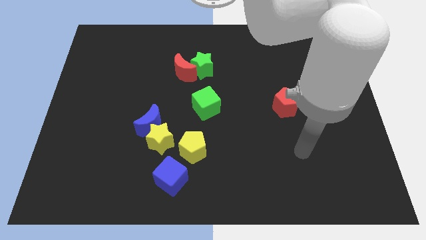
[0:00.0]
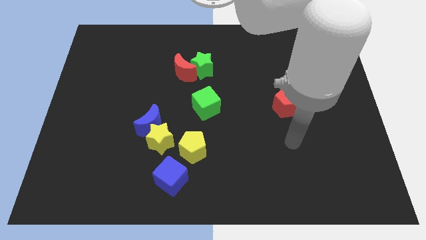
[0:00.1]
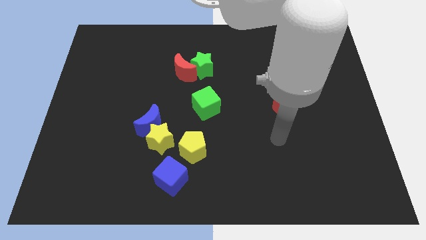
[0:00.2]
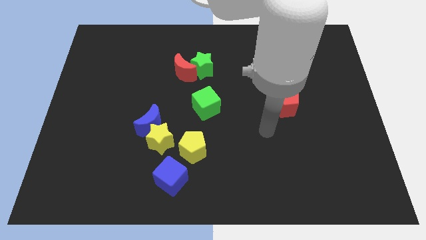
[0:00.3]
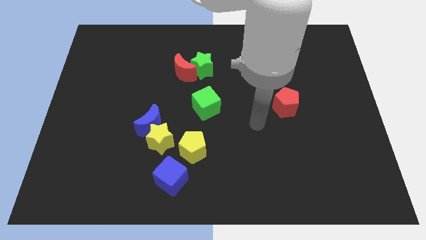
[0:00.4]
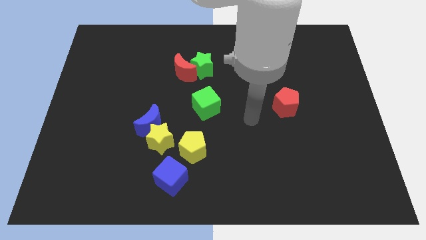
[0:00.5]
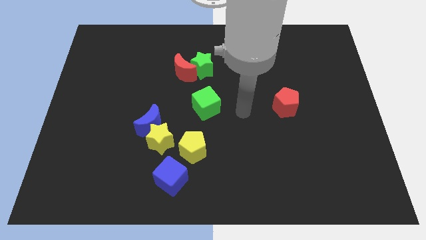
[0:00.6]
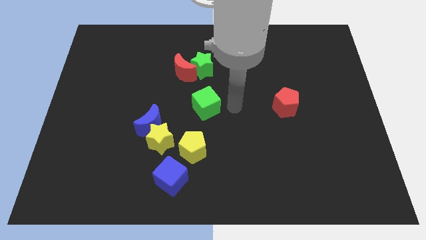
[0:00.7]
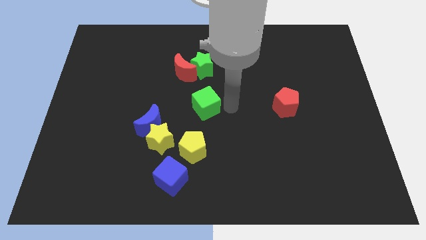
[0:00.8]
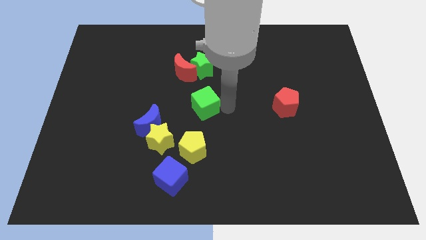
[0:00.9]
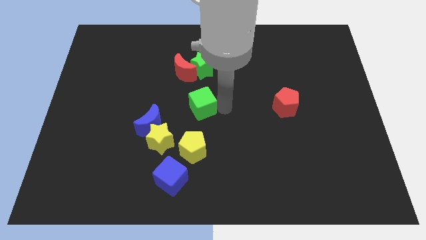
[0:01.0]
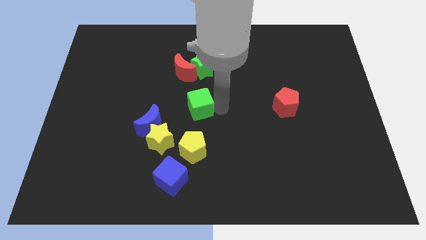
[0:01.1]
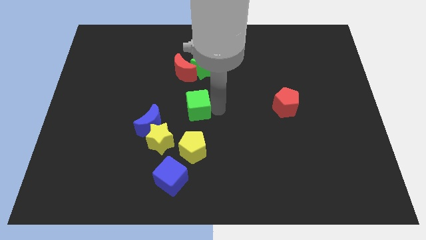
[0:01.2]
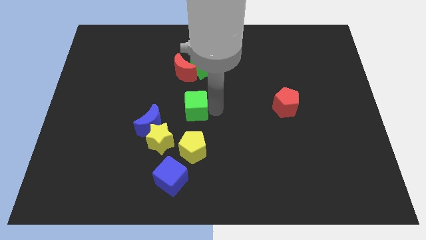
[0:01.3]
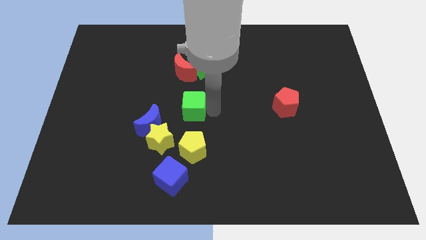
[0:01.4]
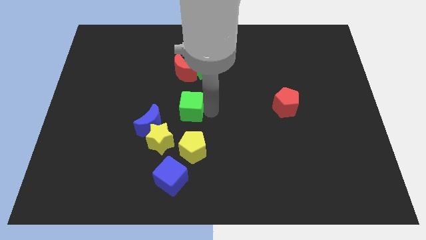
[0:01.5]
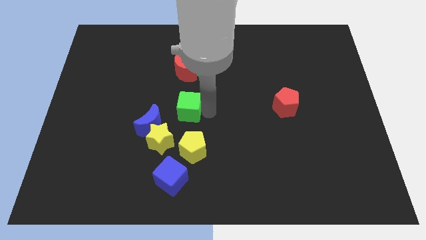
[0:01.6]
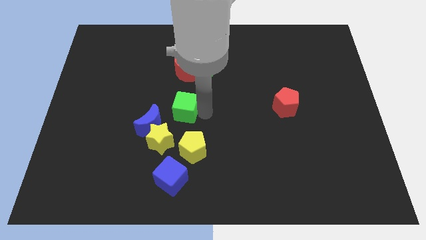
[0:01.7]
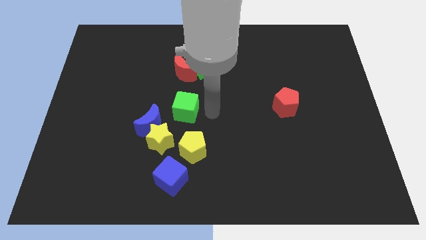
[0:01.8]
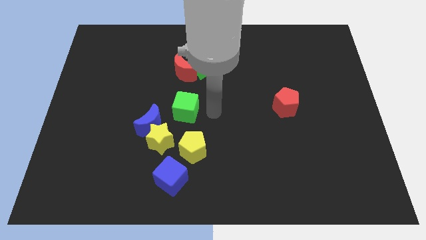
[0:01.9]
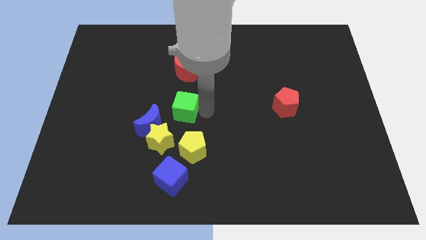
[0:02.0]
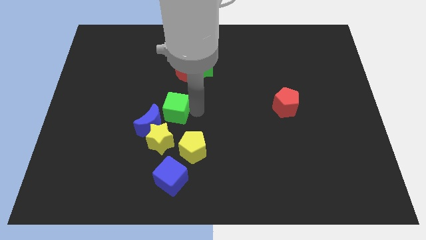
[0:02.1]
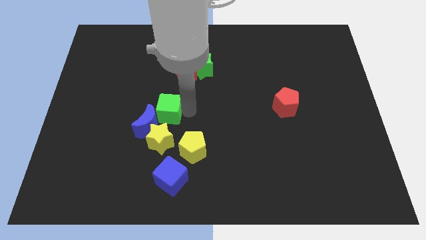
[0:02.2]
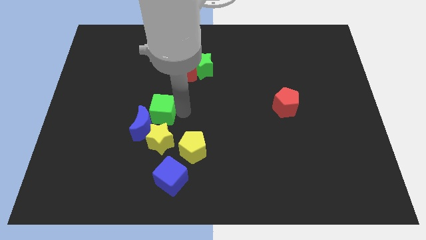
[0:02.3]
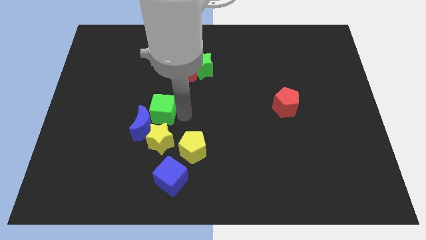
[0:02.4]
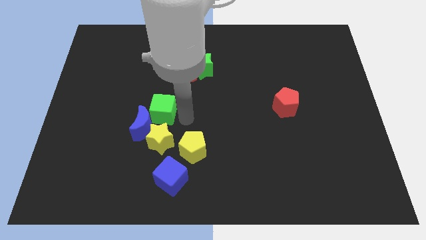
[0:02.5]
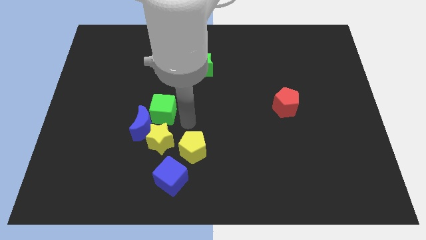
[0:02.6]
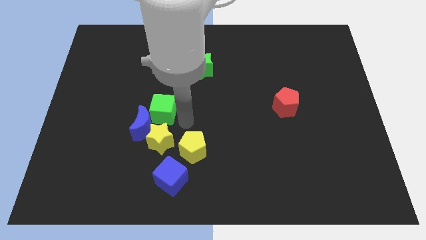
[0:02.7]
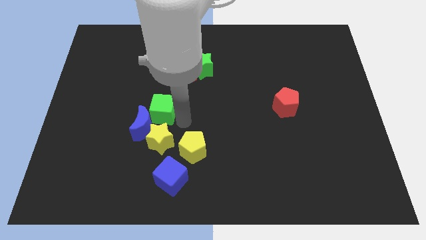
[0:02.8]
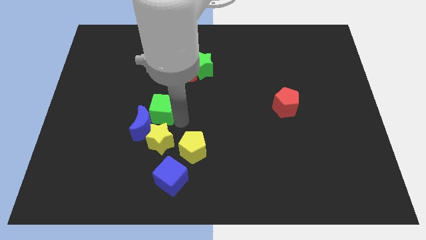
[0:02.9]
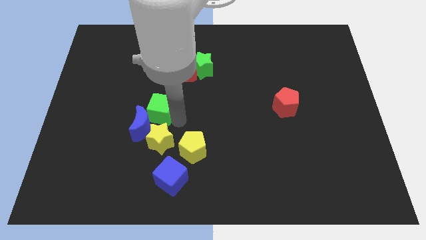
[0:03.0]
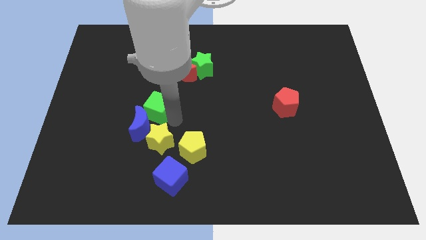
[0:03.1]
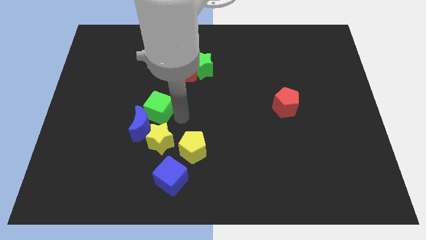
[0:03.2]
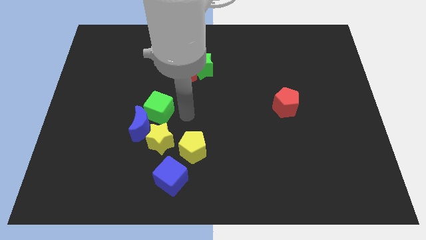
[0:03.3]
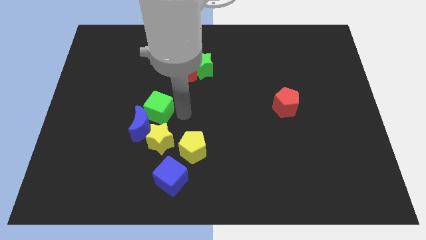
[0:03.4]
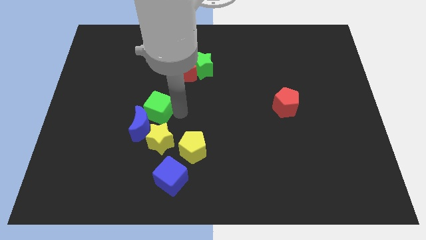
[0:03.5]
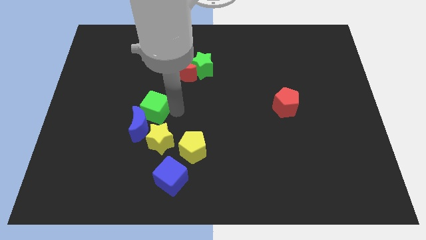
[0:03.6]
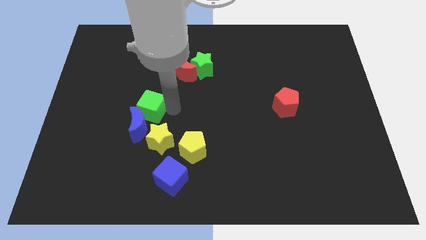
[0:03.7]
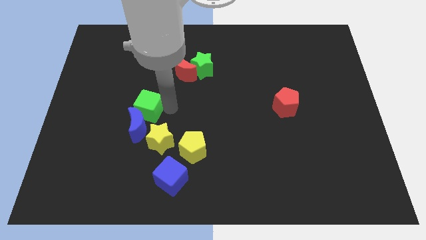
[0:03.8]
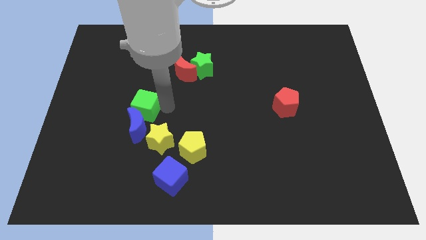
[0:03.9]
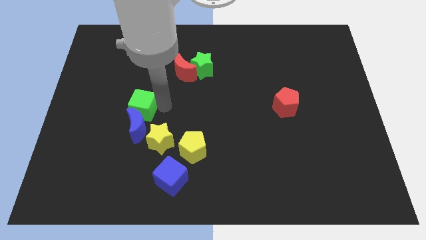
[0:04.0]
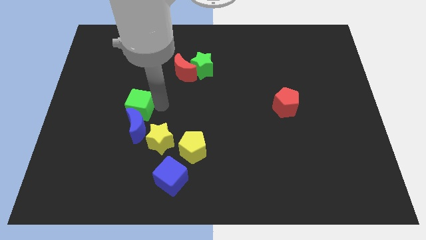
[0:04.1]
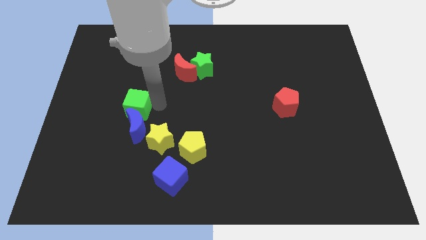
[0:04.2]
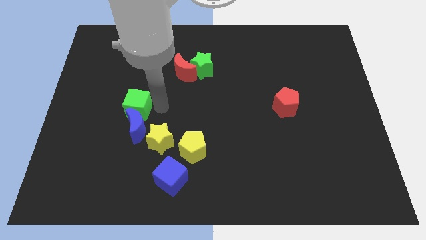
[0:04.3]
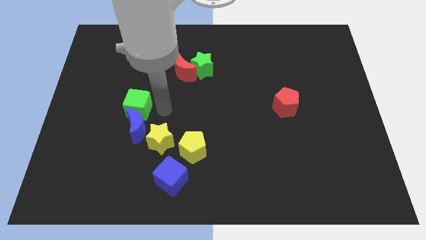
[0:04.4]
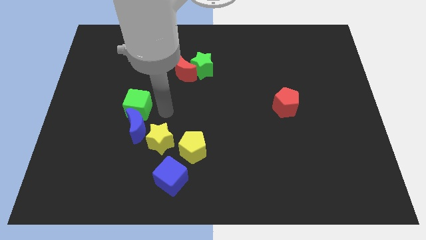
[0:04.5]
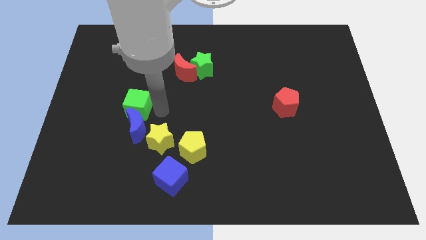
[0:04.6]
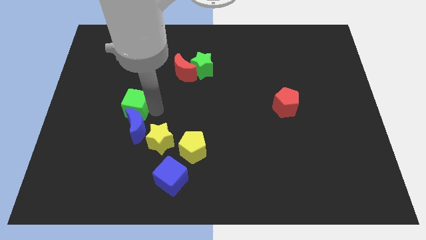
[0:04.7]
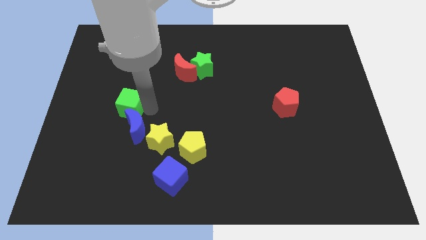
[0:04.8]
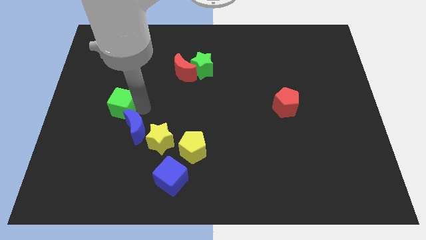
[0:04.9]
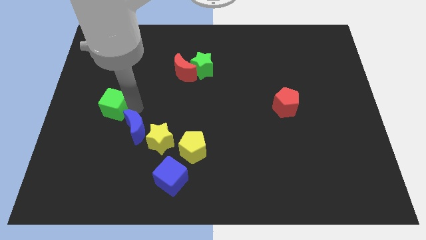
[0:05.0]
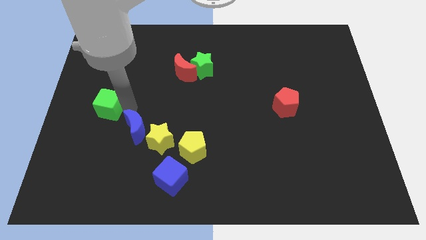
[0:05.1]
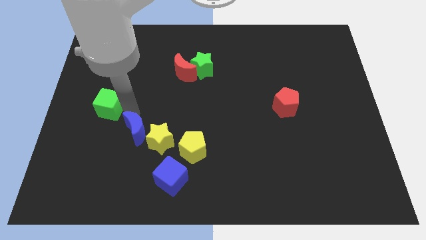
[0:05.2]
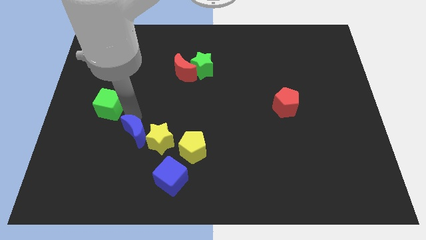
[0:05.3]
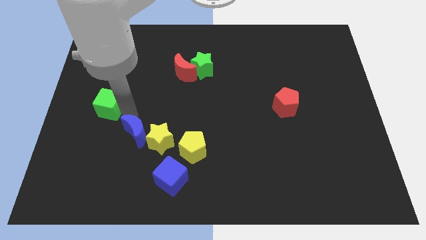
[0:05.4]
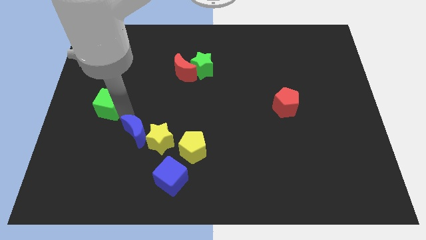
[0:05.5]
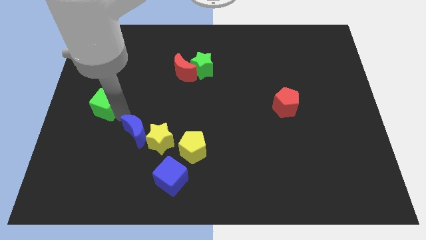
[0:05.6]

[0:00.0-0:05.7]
push the green cube to the left side
